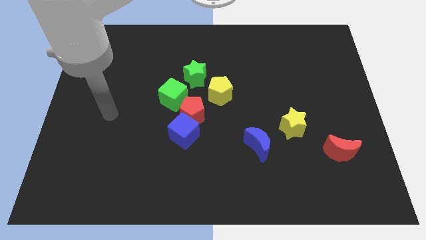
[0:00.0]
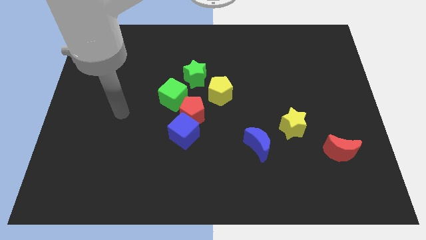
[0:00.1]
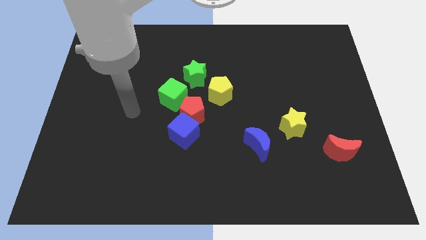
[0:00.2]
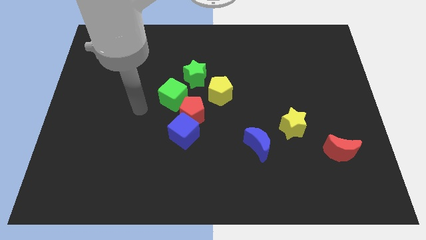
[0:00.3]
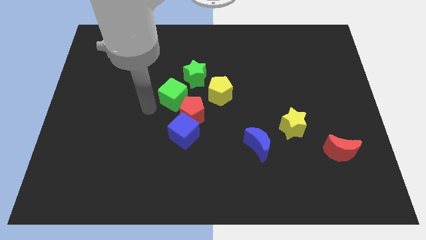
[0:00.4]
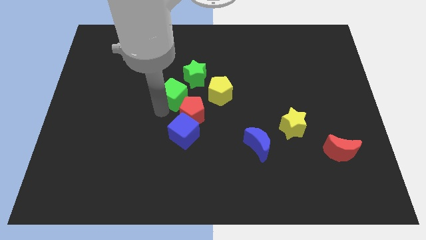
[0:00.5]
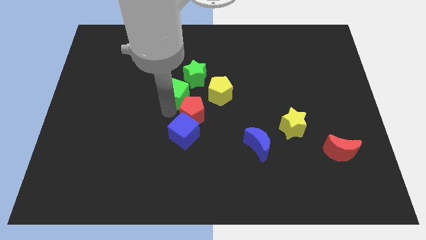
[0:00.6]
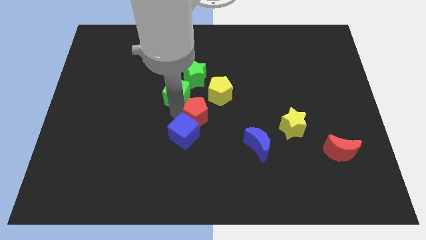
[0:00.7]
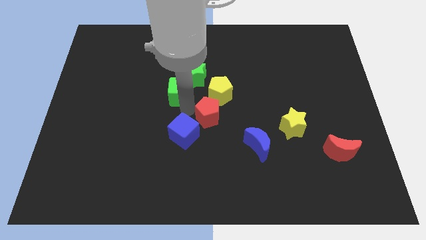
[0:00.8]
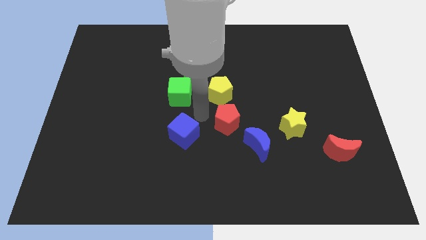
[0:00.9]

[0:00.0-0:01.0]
move the blue cube away from the red pentagon

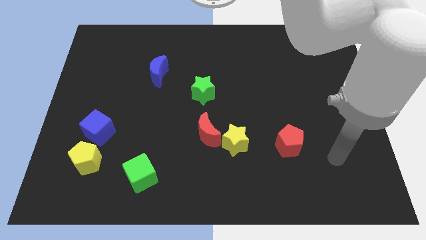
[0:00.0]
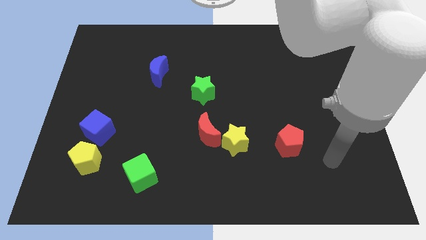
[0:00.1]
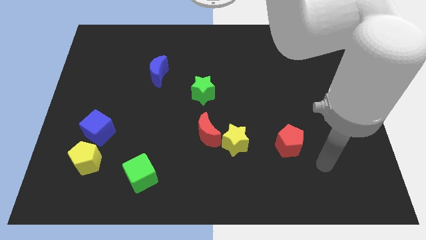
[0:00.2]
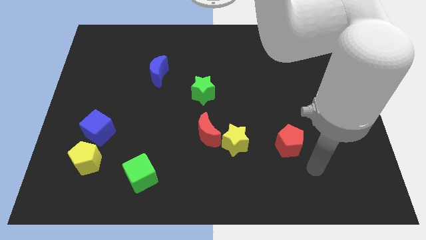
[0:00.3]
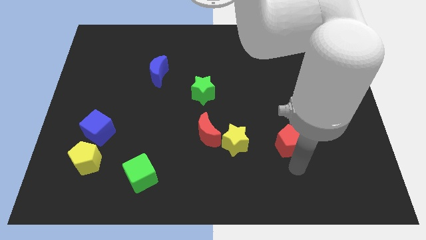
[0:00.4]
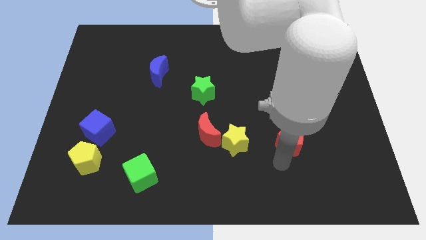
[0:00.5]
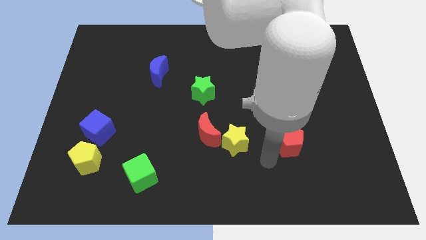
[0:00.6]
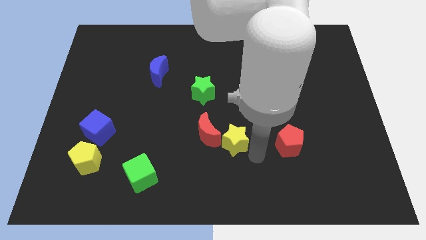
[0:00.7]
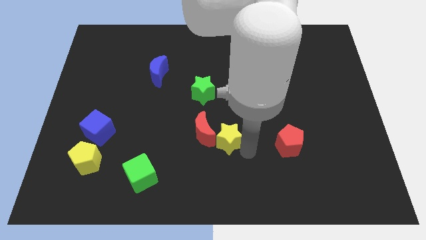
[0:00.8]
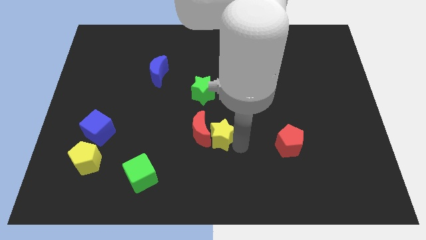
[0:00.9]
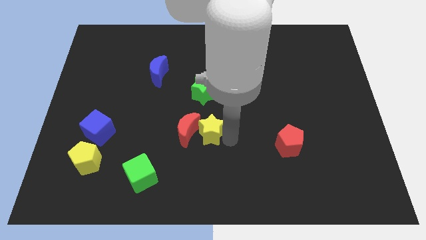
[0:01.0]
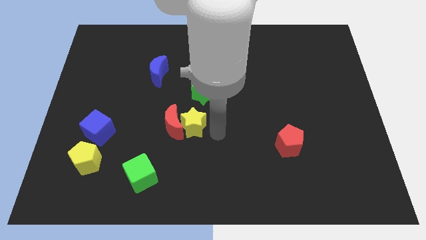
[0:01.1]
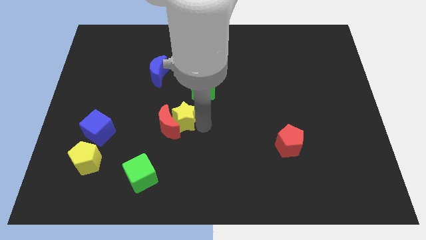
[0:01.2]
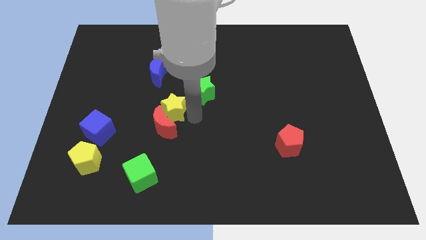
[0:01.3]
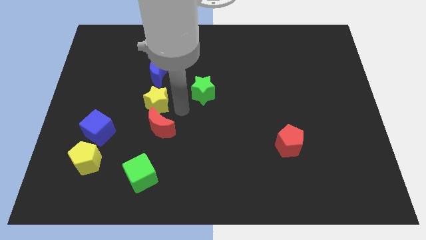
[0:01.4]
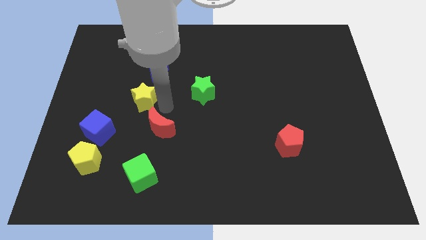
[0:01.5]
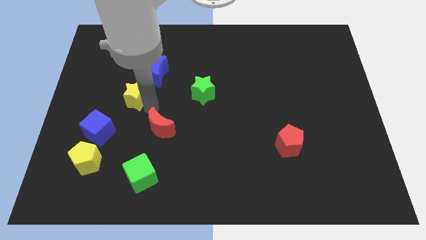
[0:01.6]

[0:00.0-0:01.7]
pull the red moon apart from the yellow star

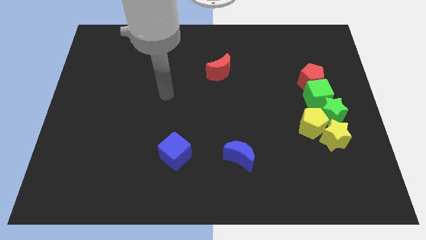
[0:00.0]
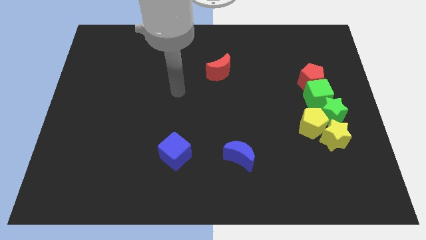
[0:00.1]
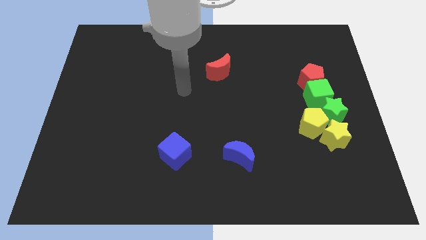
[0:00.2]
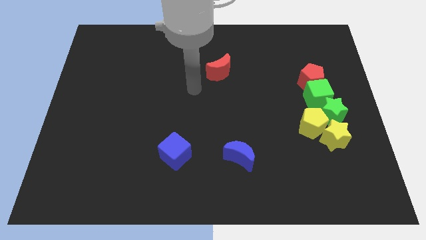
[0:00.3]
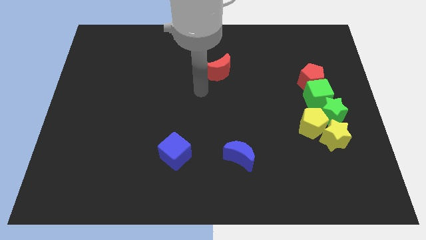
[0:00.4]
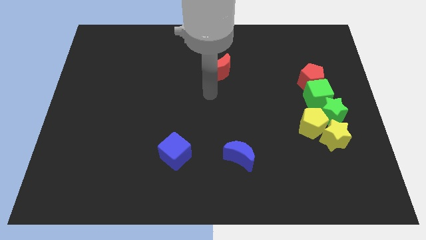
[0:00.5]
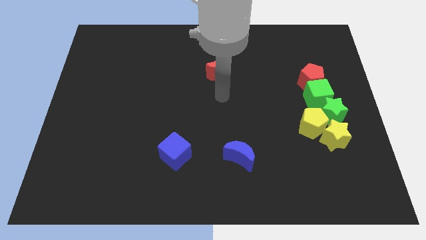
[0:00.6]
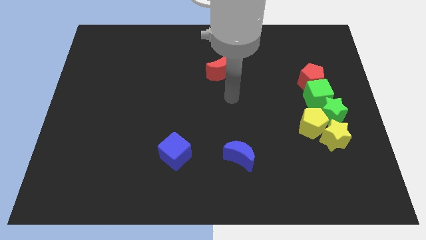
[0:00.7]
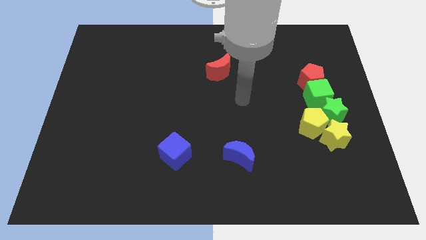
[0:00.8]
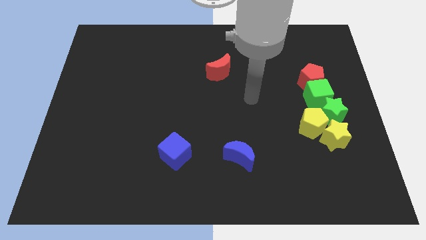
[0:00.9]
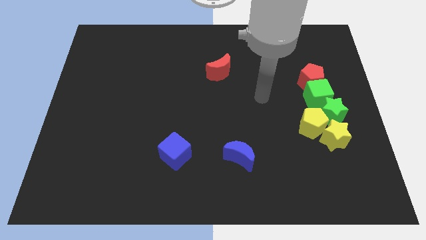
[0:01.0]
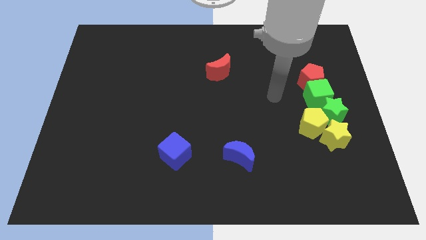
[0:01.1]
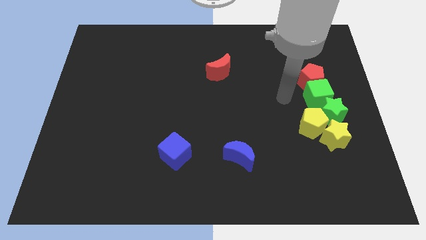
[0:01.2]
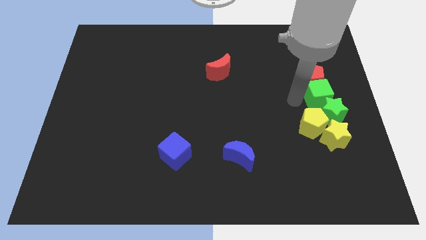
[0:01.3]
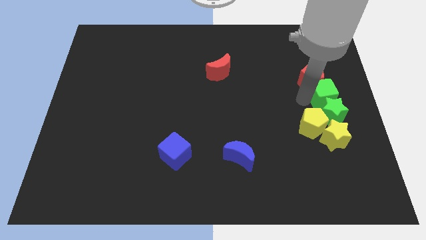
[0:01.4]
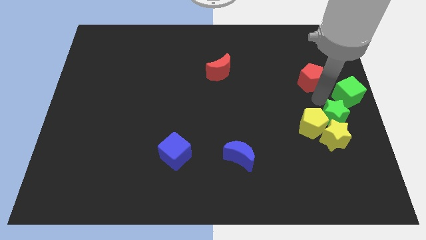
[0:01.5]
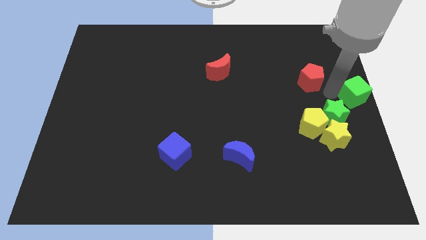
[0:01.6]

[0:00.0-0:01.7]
separate the red pentagon from the green cube

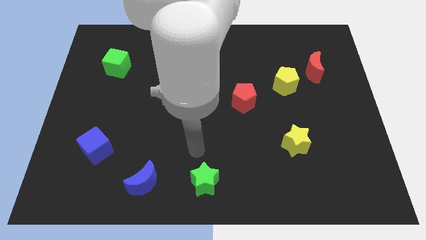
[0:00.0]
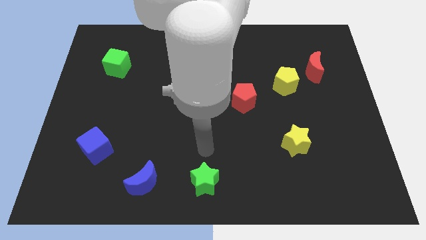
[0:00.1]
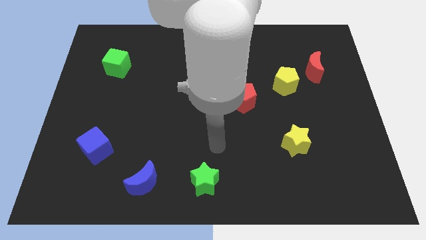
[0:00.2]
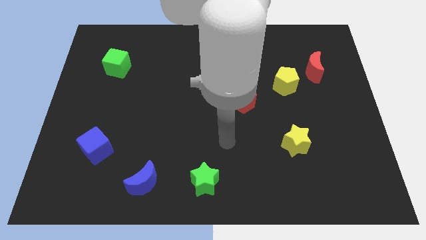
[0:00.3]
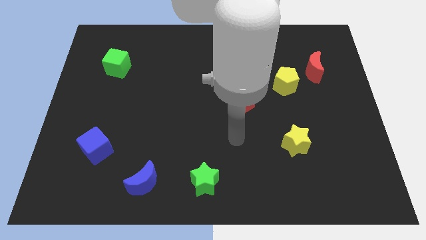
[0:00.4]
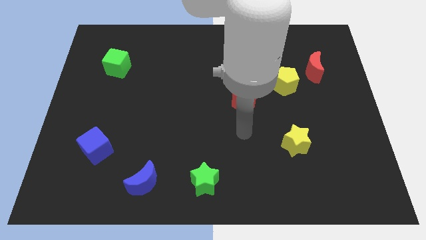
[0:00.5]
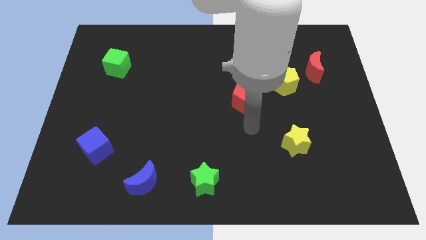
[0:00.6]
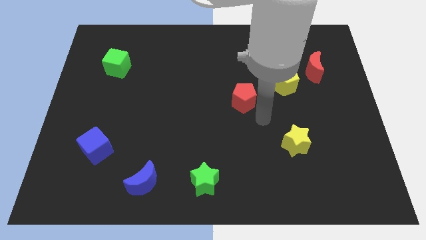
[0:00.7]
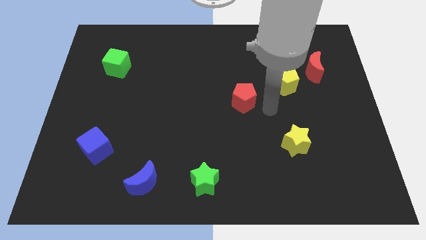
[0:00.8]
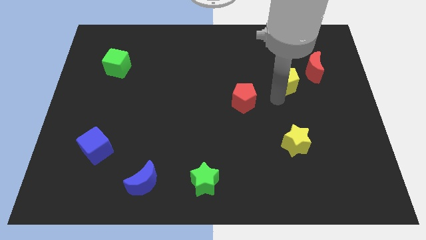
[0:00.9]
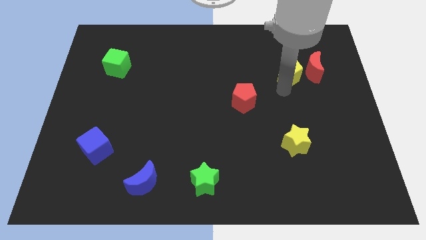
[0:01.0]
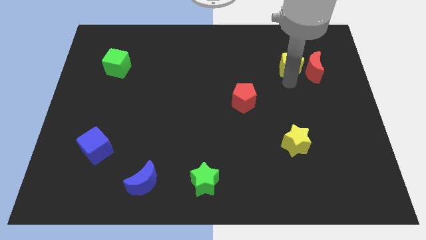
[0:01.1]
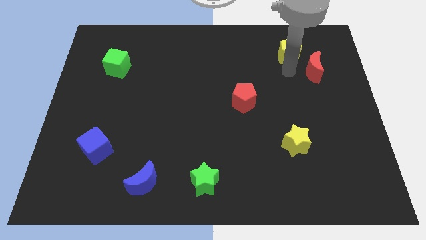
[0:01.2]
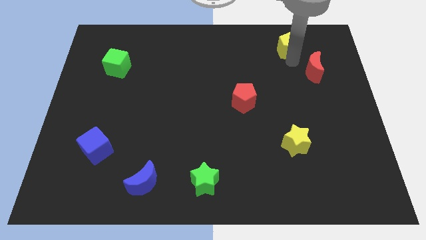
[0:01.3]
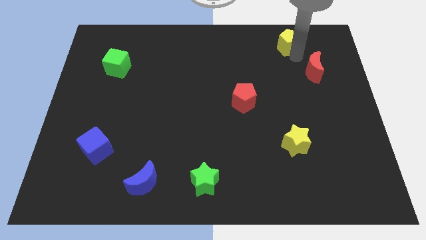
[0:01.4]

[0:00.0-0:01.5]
move the red moon away from the yellow pentagon

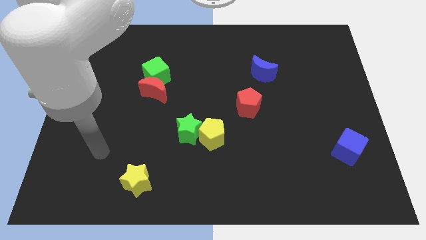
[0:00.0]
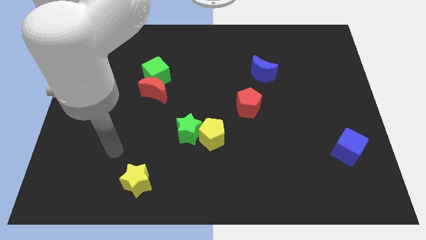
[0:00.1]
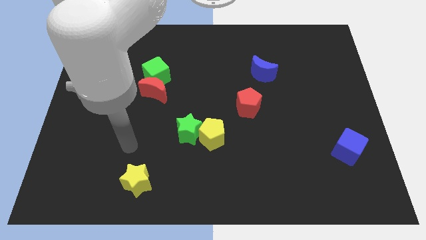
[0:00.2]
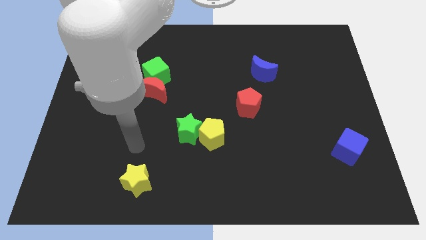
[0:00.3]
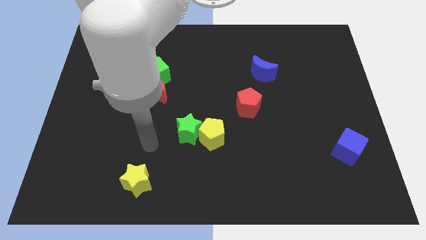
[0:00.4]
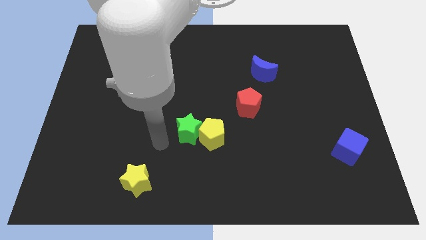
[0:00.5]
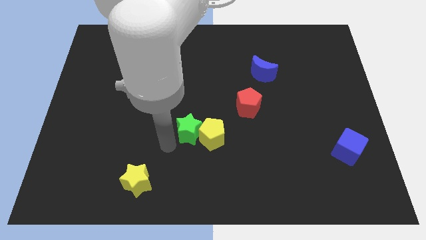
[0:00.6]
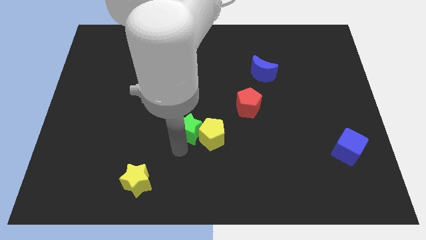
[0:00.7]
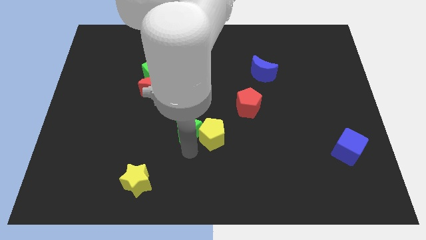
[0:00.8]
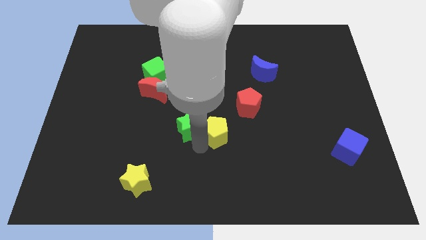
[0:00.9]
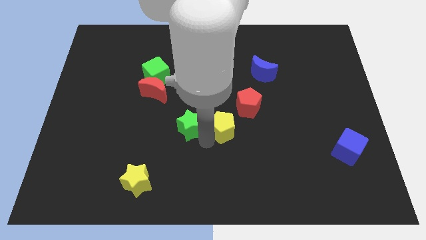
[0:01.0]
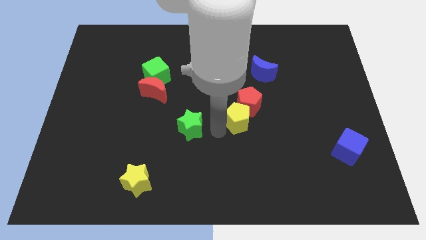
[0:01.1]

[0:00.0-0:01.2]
separate the green star from the yellow pentagon

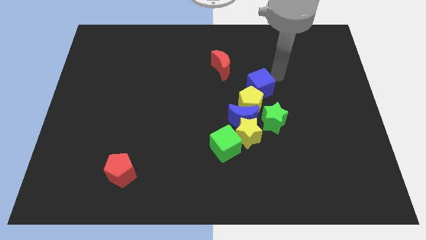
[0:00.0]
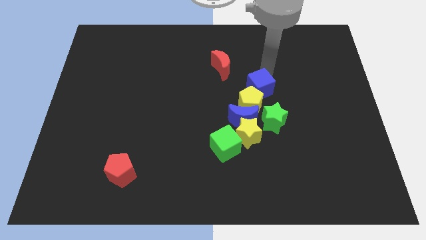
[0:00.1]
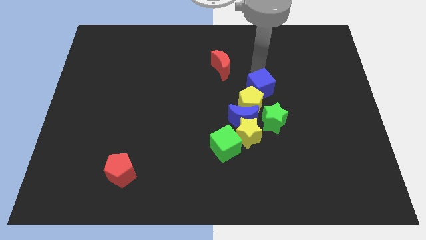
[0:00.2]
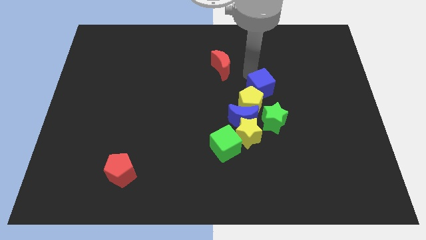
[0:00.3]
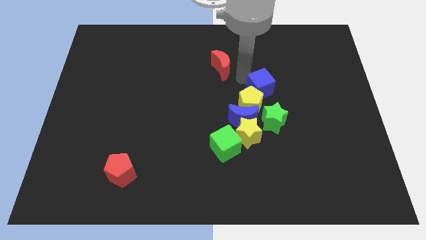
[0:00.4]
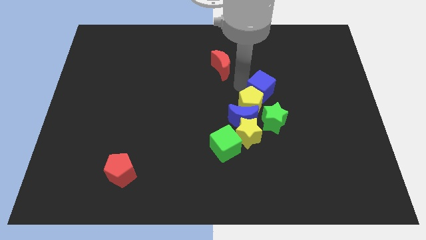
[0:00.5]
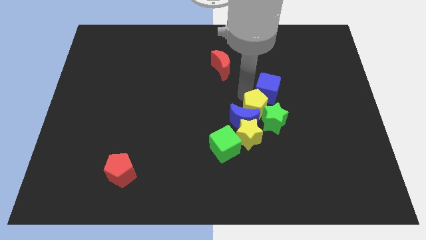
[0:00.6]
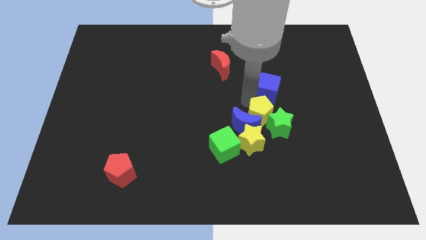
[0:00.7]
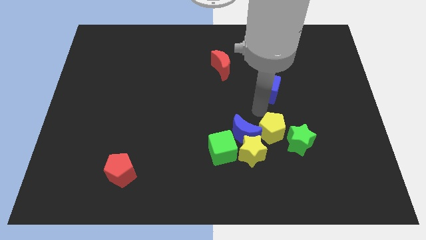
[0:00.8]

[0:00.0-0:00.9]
move the blue cube away from the yellow pentagon

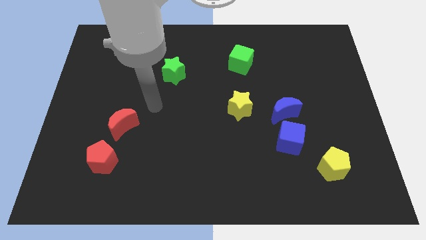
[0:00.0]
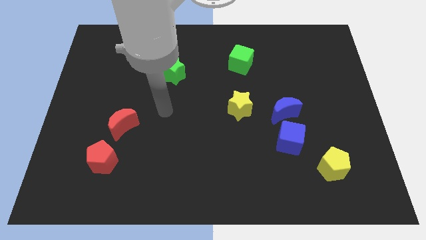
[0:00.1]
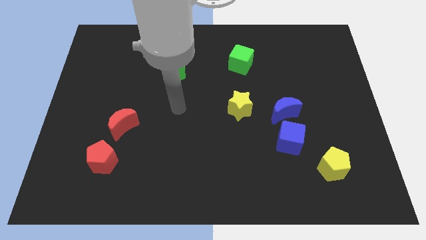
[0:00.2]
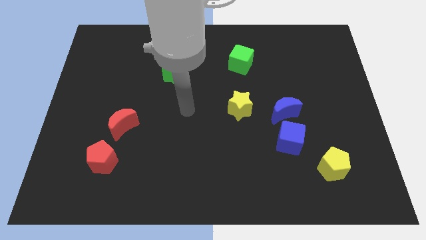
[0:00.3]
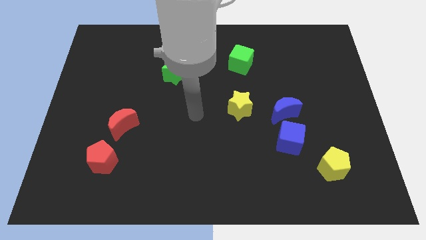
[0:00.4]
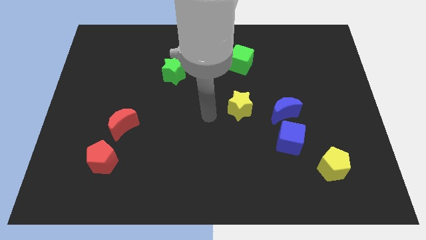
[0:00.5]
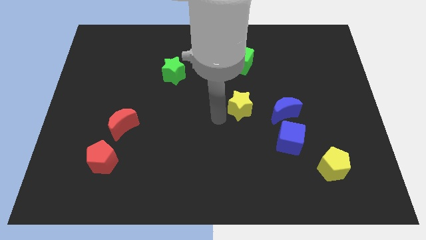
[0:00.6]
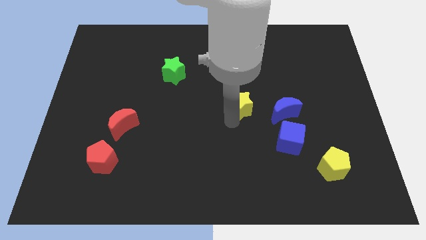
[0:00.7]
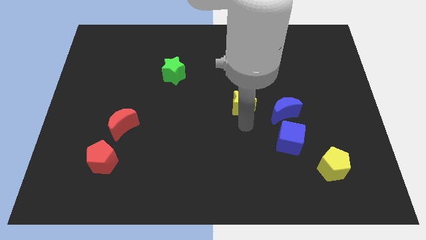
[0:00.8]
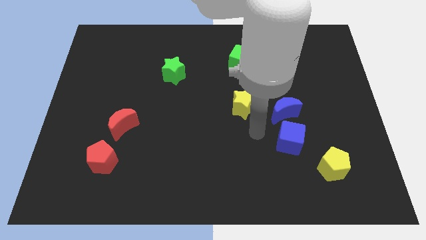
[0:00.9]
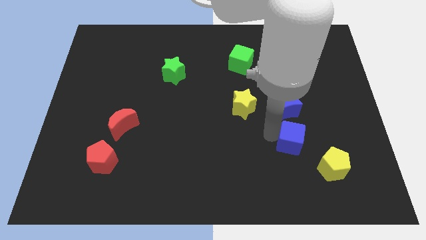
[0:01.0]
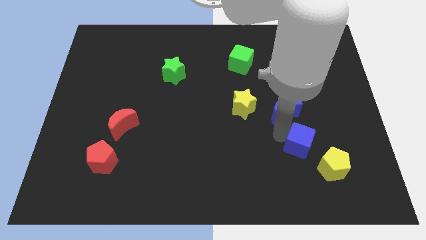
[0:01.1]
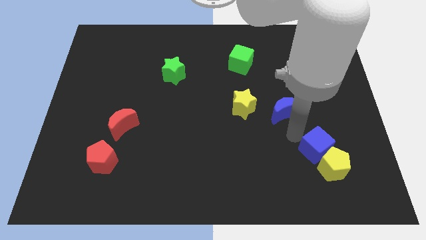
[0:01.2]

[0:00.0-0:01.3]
pull the blue moon apart from the blue cube
